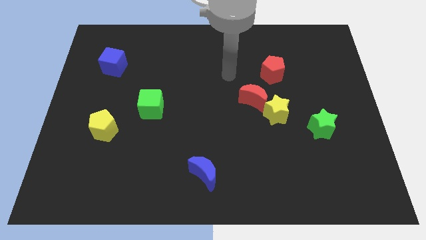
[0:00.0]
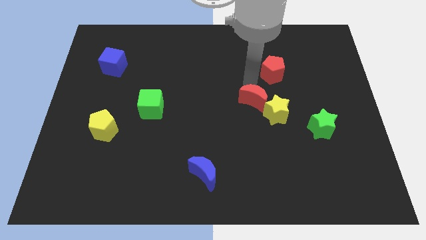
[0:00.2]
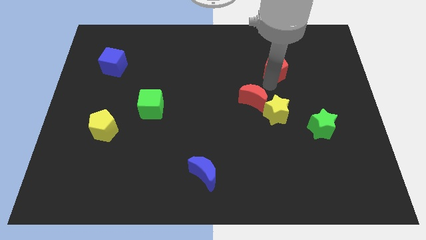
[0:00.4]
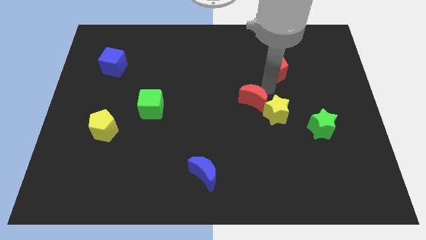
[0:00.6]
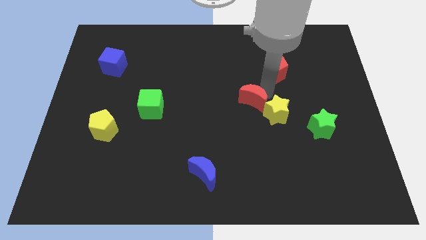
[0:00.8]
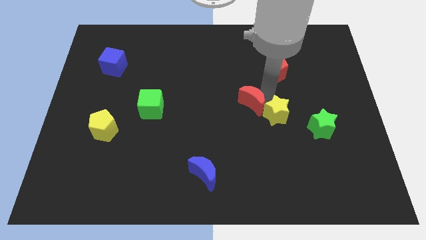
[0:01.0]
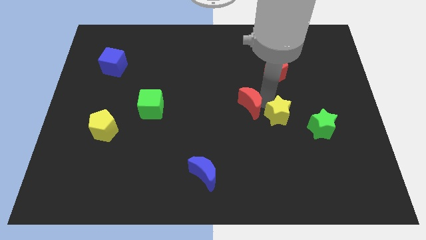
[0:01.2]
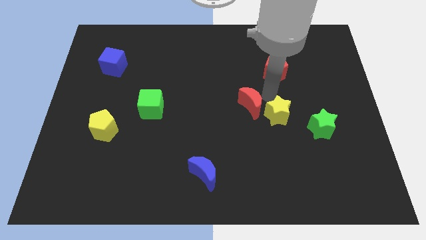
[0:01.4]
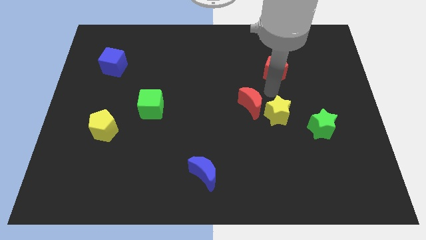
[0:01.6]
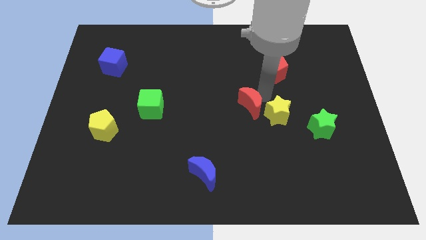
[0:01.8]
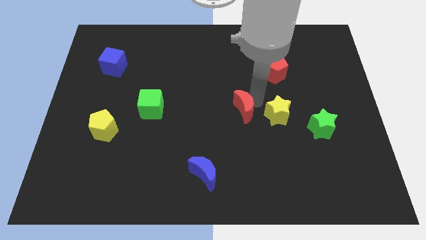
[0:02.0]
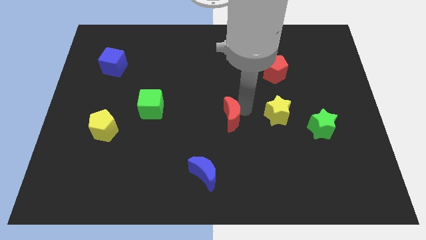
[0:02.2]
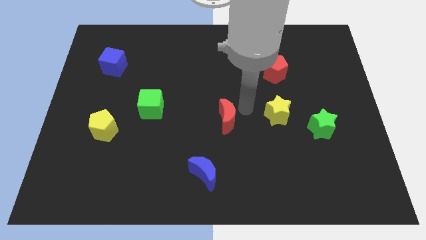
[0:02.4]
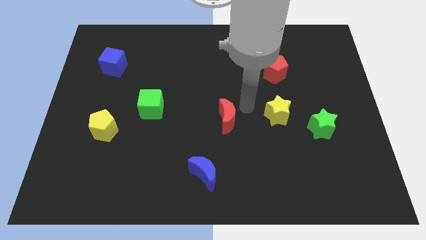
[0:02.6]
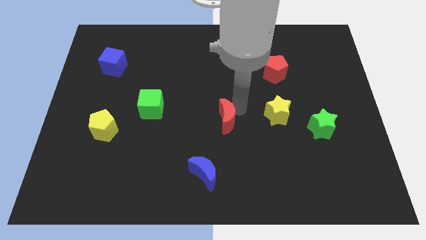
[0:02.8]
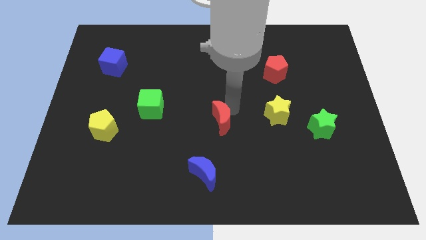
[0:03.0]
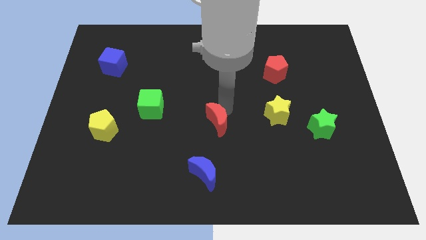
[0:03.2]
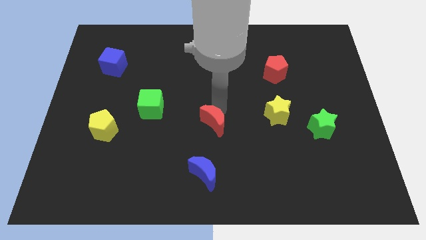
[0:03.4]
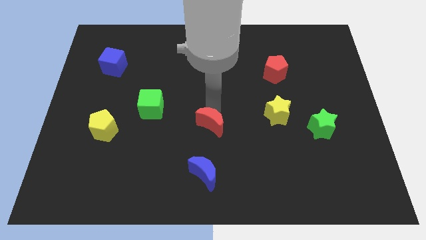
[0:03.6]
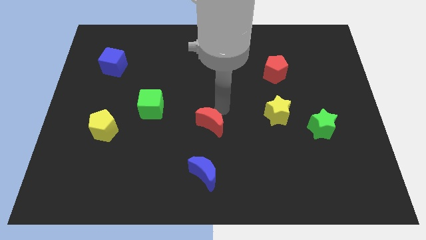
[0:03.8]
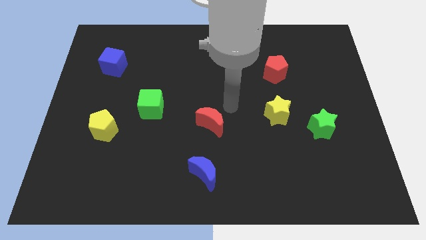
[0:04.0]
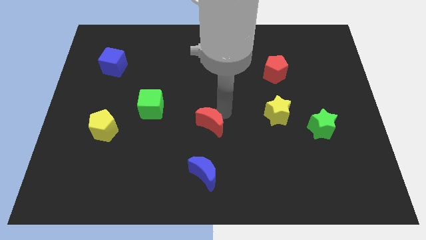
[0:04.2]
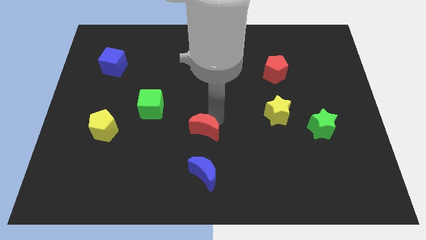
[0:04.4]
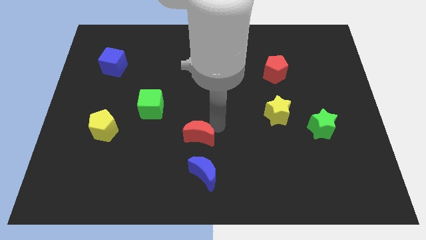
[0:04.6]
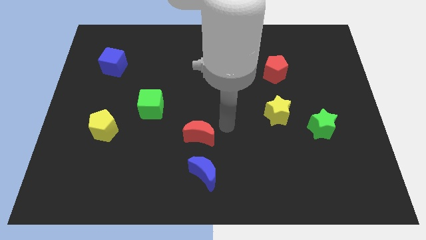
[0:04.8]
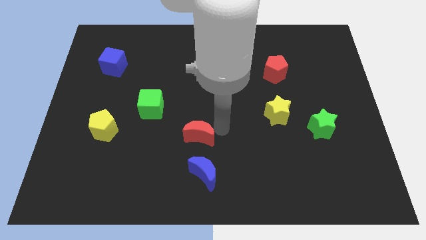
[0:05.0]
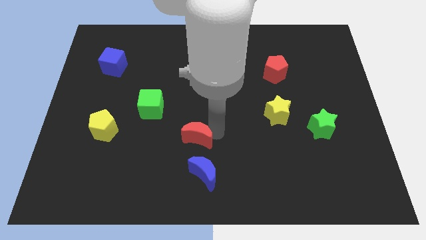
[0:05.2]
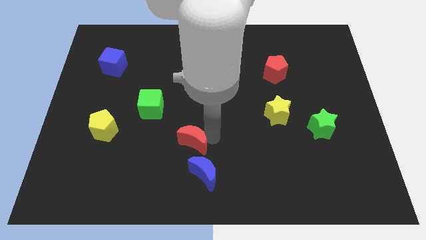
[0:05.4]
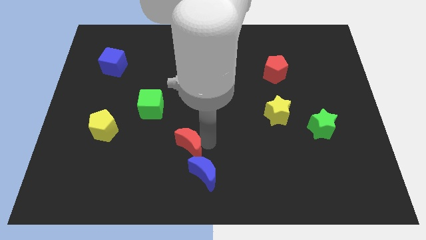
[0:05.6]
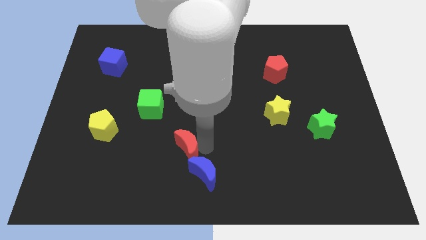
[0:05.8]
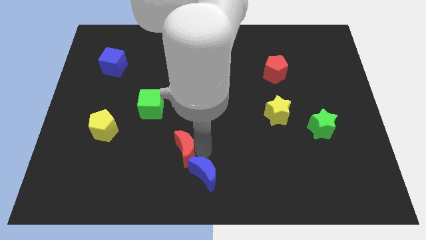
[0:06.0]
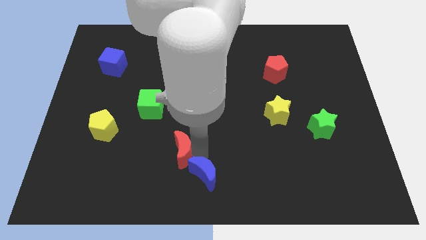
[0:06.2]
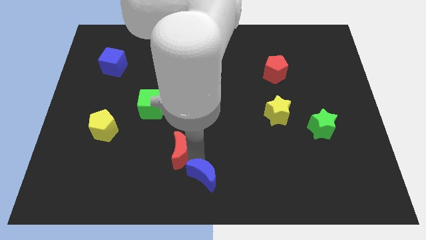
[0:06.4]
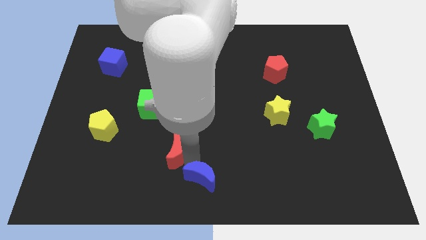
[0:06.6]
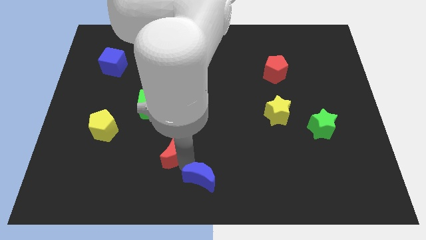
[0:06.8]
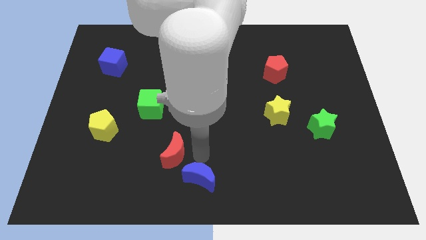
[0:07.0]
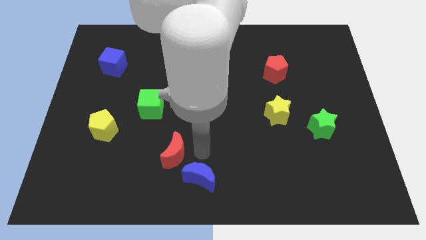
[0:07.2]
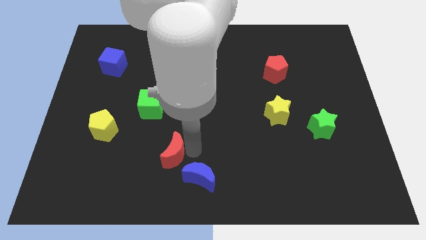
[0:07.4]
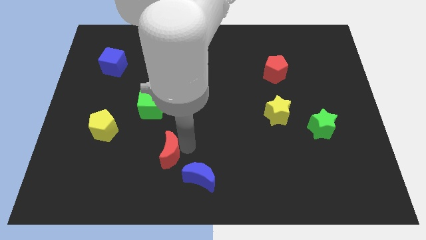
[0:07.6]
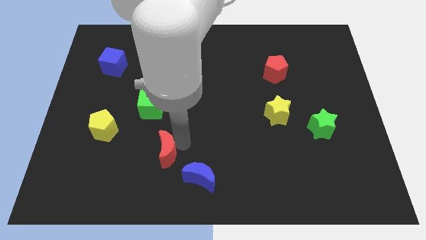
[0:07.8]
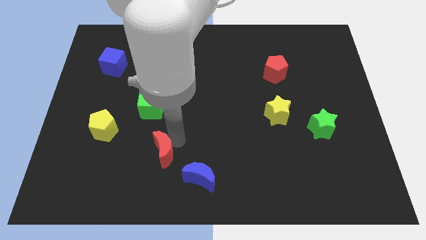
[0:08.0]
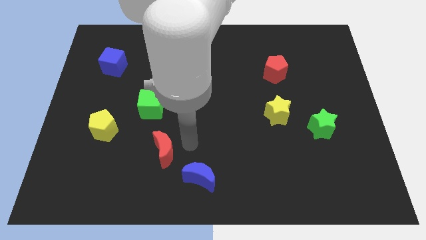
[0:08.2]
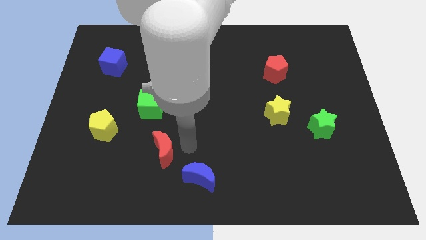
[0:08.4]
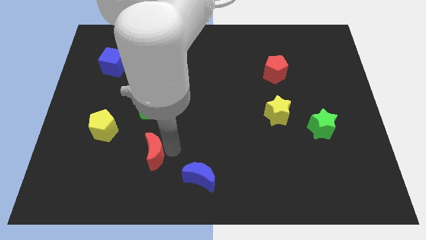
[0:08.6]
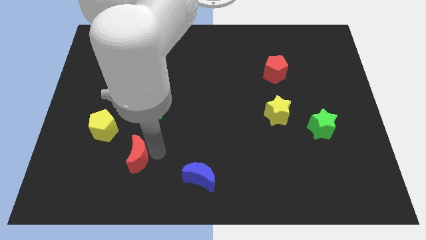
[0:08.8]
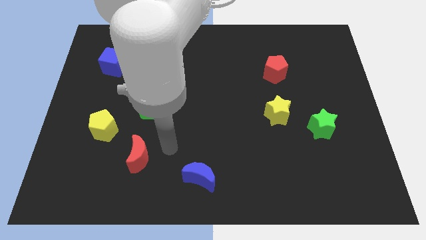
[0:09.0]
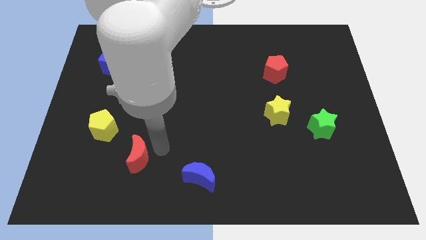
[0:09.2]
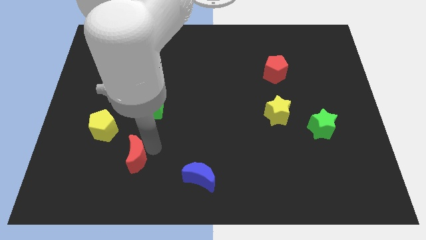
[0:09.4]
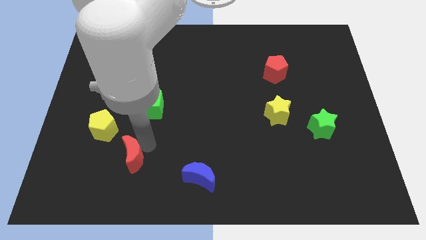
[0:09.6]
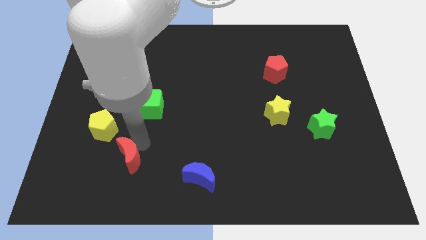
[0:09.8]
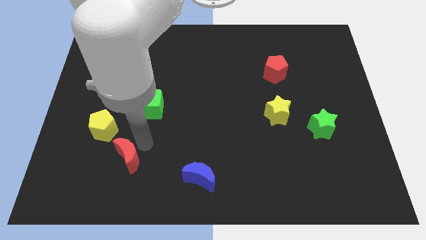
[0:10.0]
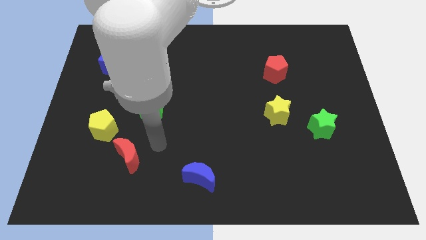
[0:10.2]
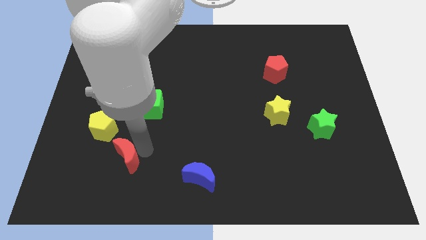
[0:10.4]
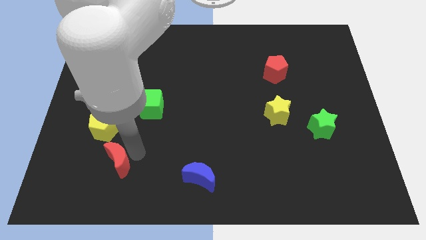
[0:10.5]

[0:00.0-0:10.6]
put the red moon below the yellow pentagon

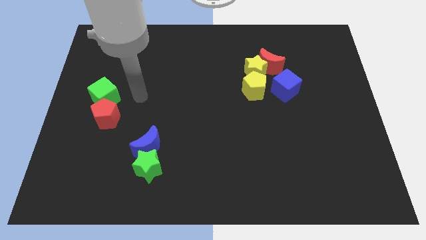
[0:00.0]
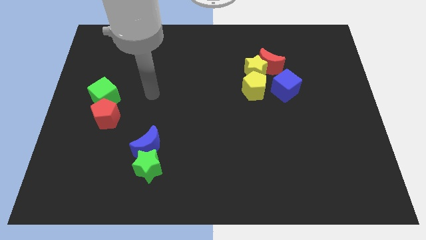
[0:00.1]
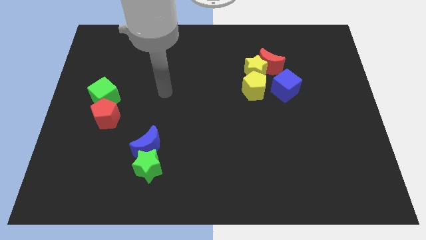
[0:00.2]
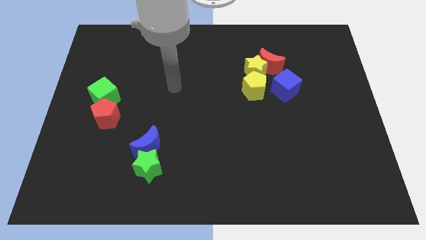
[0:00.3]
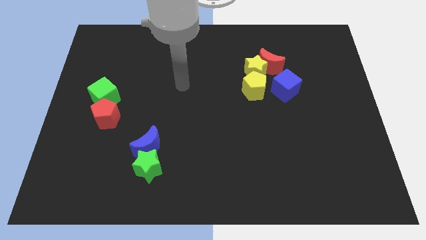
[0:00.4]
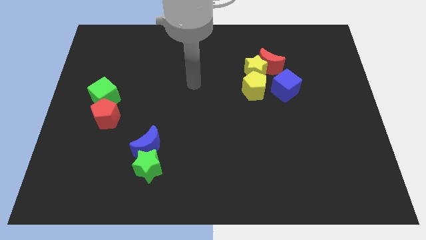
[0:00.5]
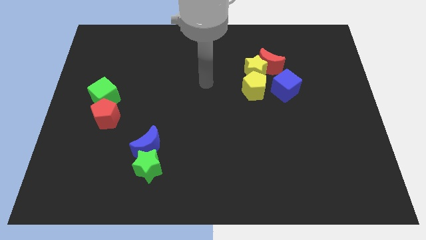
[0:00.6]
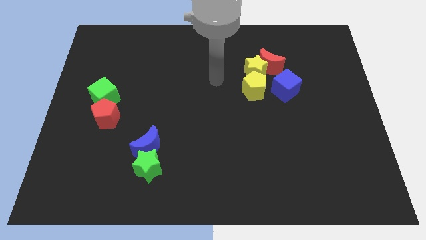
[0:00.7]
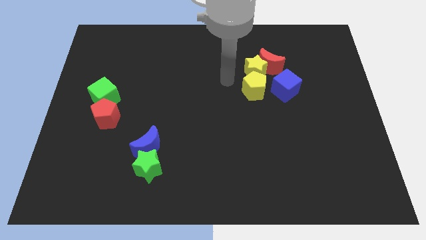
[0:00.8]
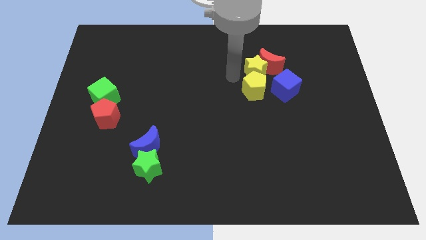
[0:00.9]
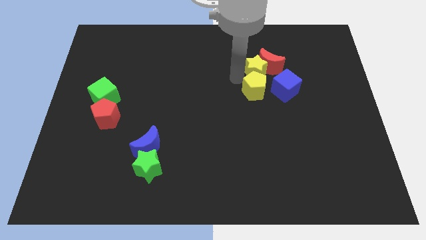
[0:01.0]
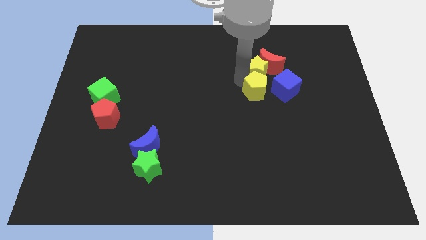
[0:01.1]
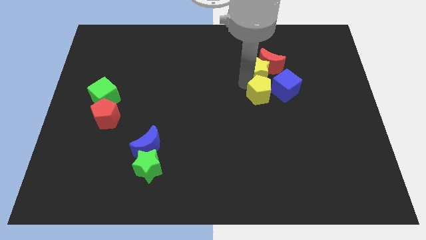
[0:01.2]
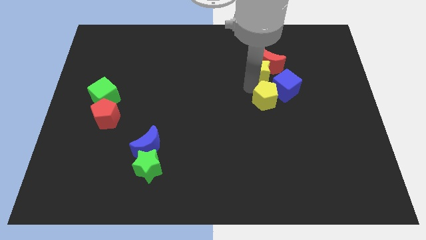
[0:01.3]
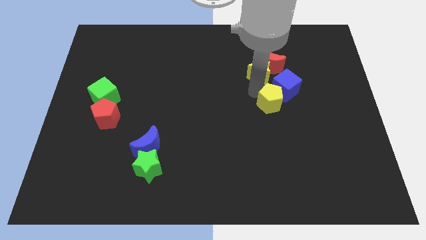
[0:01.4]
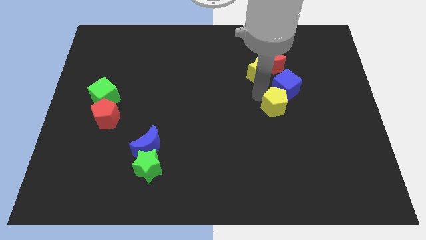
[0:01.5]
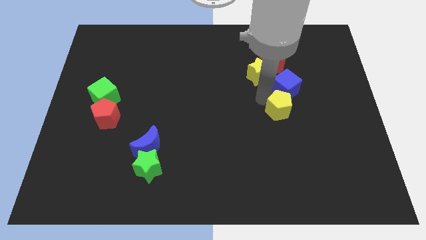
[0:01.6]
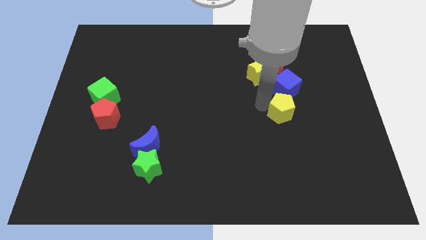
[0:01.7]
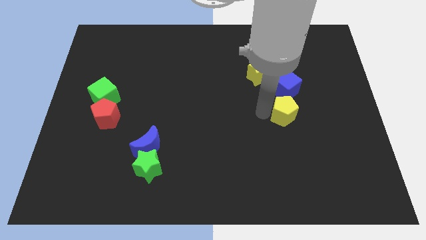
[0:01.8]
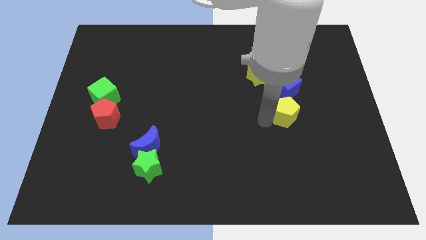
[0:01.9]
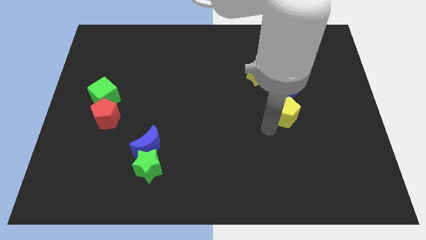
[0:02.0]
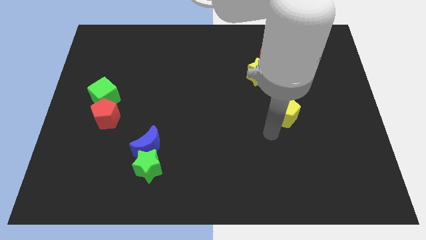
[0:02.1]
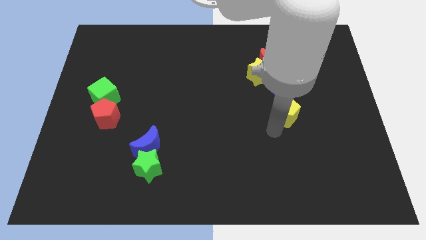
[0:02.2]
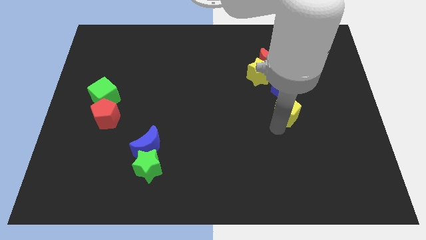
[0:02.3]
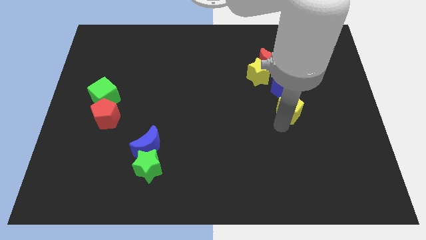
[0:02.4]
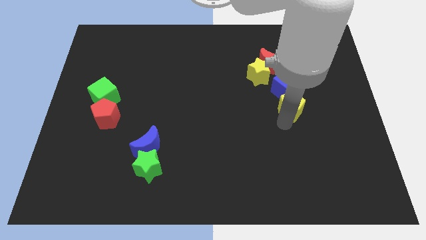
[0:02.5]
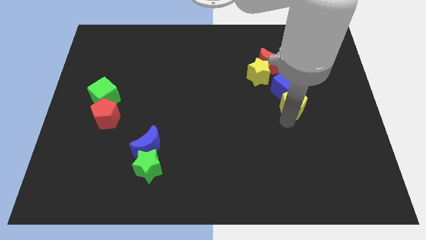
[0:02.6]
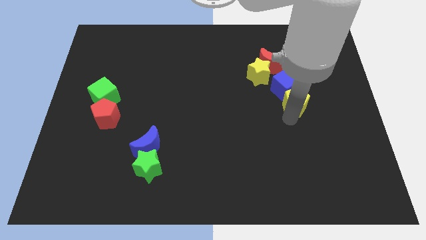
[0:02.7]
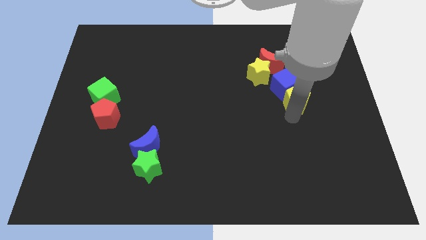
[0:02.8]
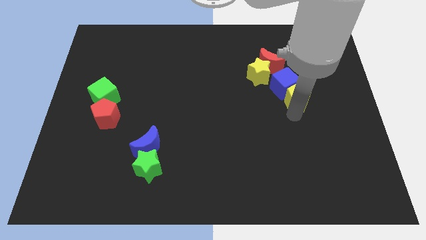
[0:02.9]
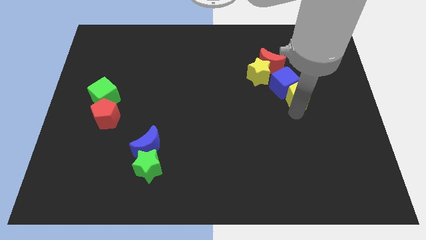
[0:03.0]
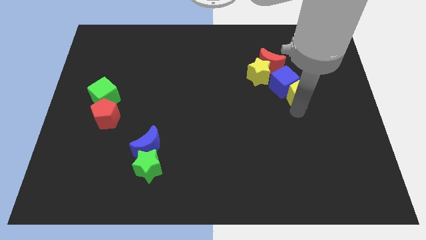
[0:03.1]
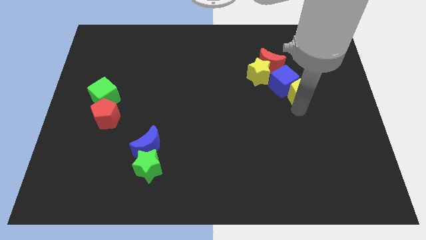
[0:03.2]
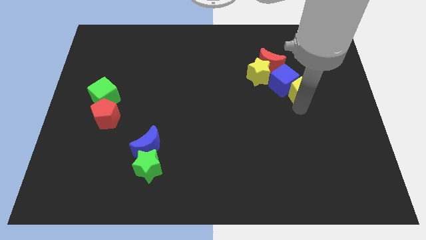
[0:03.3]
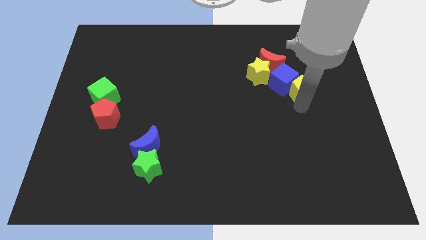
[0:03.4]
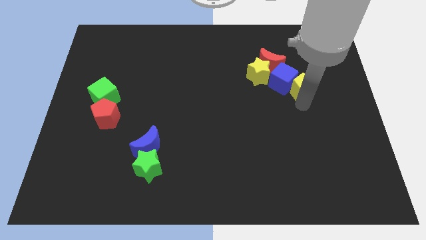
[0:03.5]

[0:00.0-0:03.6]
put the yellow pentagon just right of the yellow star
